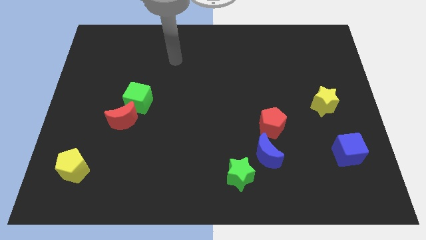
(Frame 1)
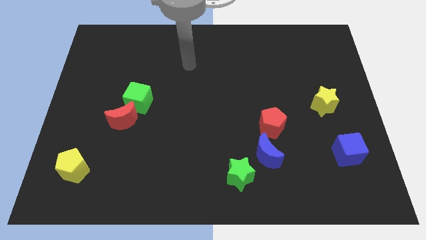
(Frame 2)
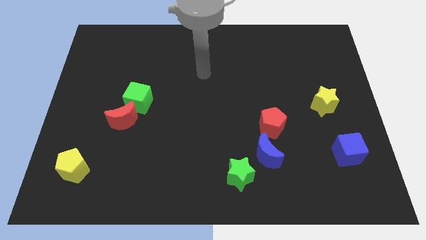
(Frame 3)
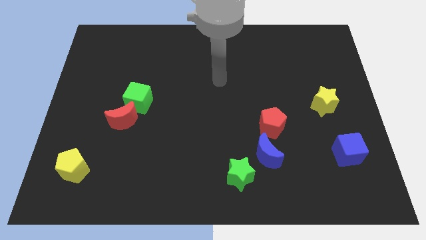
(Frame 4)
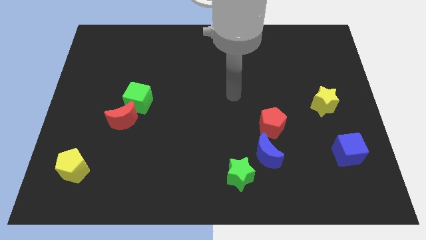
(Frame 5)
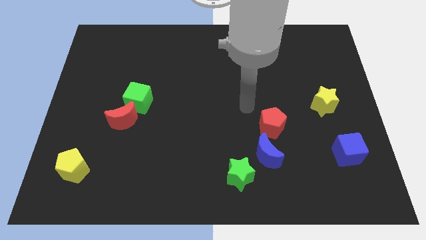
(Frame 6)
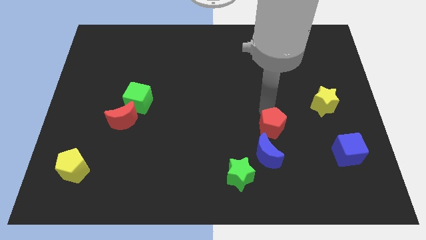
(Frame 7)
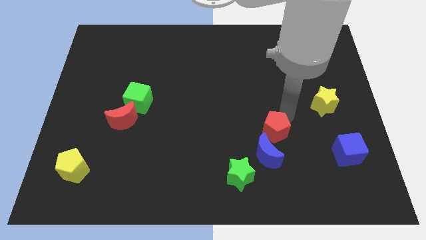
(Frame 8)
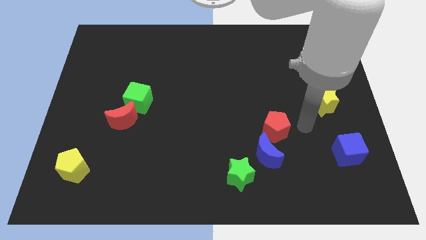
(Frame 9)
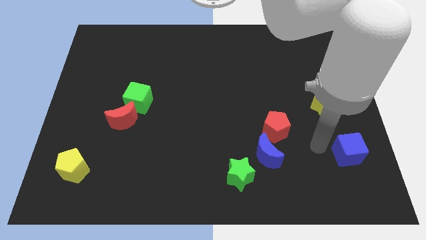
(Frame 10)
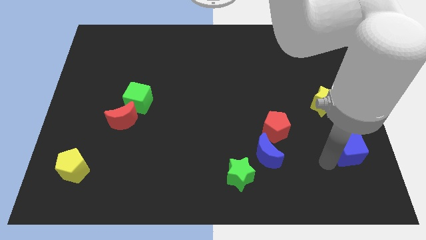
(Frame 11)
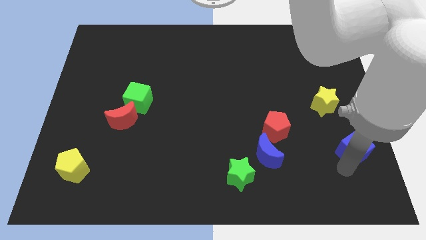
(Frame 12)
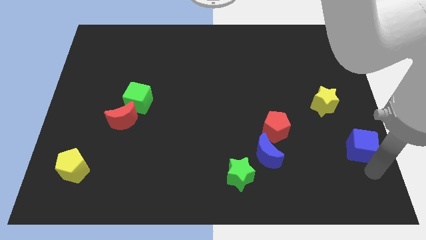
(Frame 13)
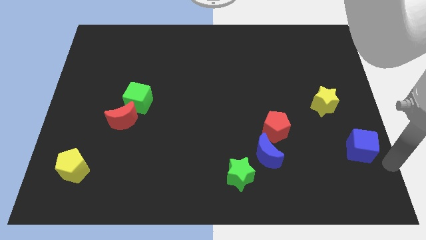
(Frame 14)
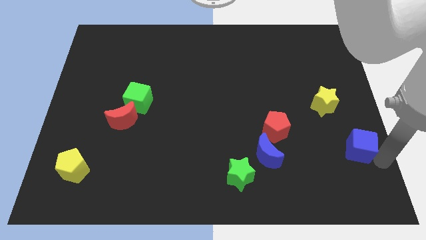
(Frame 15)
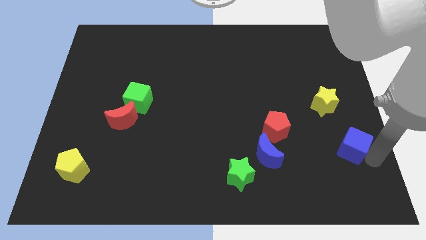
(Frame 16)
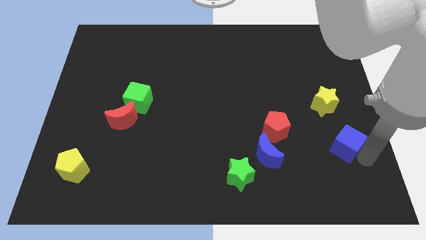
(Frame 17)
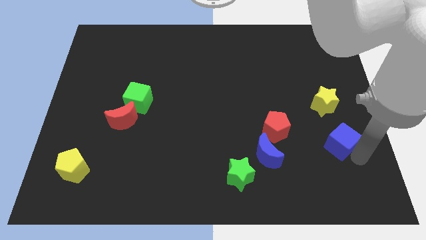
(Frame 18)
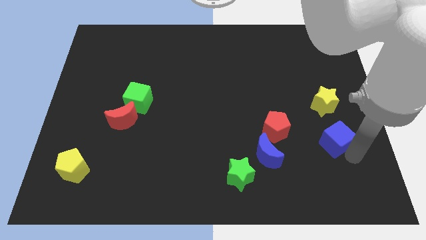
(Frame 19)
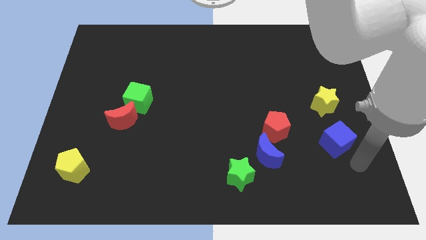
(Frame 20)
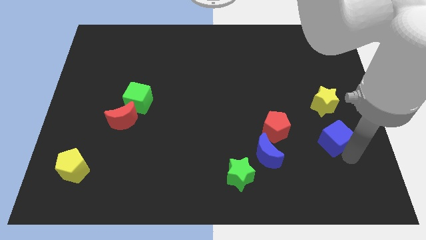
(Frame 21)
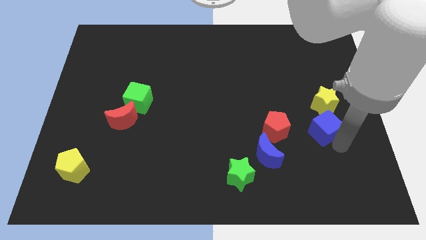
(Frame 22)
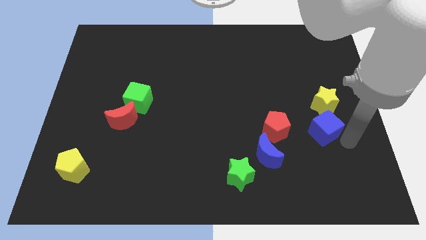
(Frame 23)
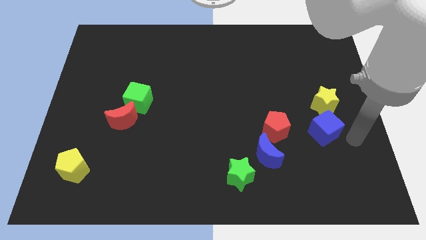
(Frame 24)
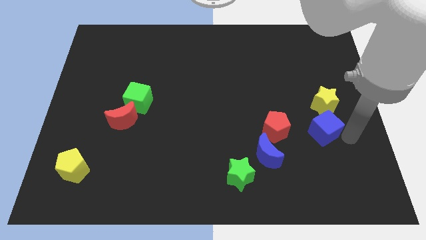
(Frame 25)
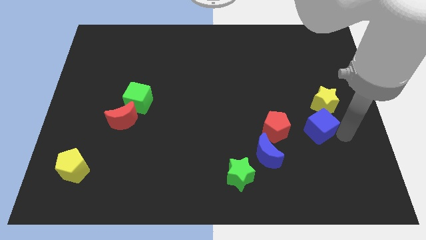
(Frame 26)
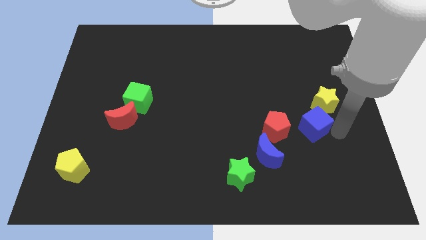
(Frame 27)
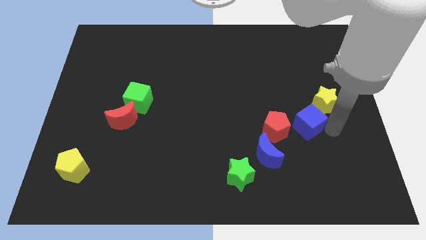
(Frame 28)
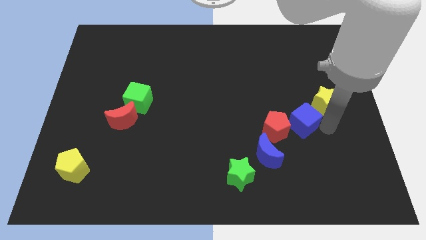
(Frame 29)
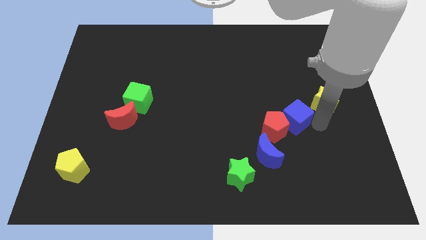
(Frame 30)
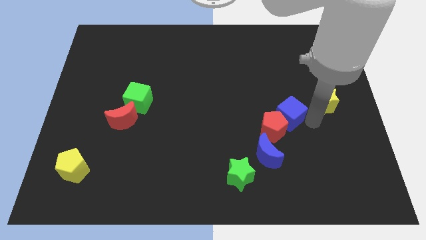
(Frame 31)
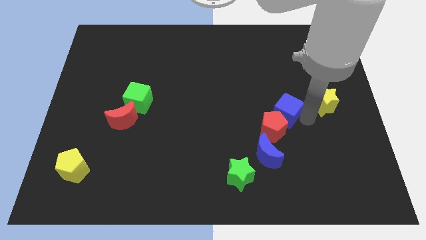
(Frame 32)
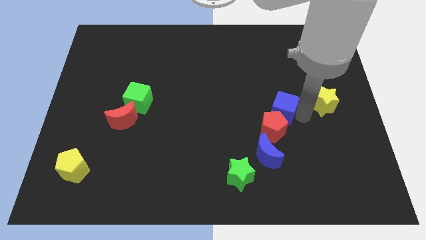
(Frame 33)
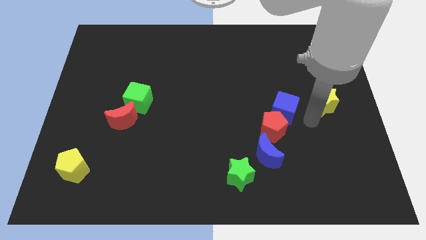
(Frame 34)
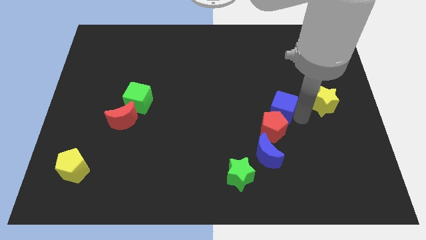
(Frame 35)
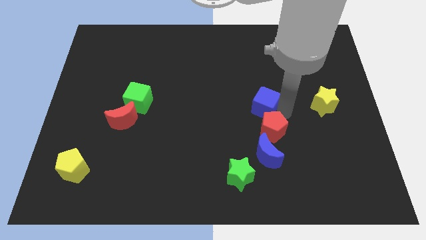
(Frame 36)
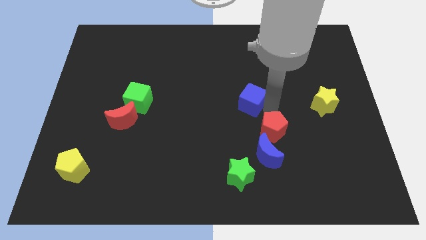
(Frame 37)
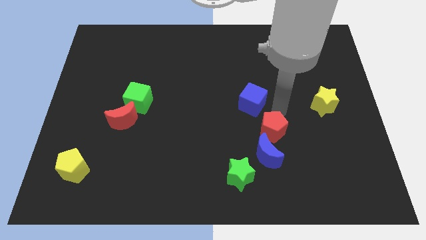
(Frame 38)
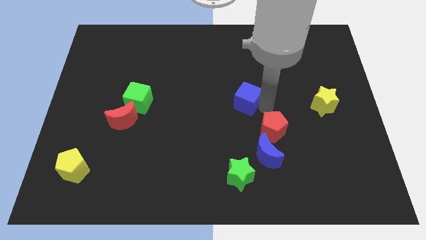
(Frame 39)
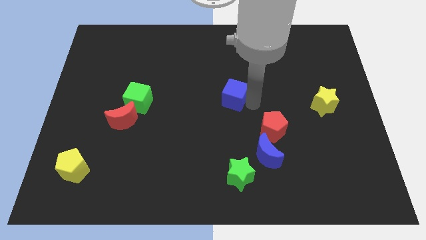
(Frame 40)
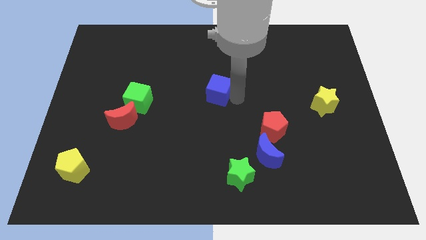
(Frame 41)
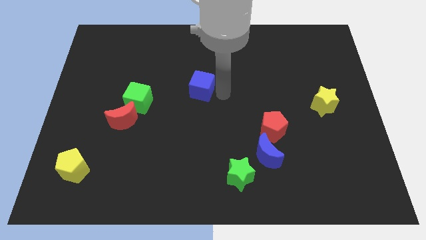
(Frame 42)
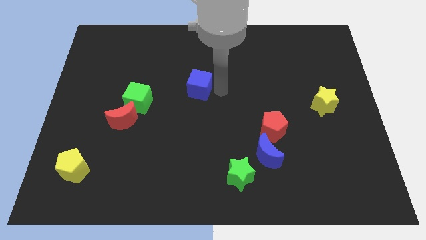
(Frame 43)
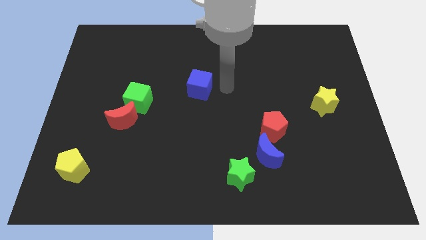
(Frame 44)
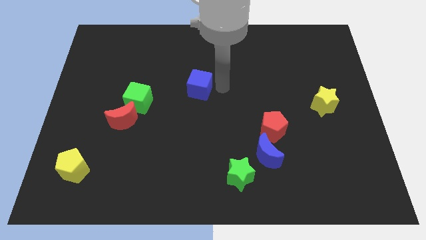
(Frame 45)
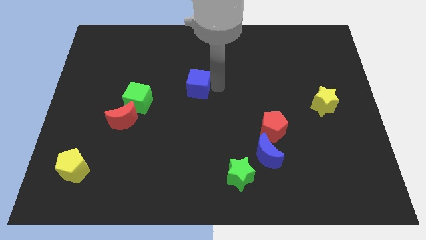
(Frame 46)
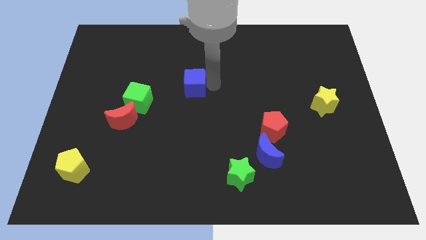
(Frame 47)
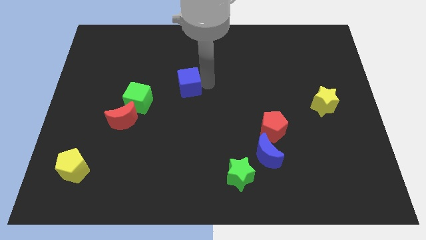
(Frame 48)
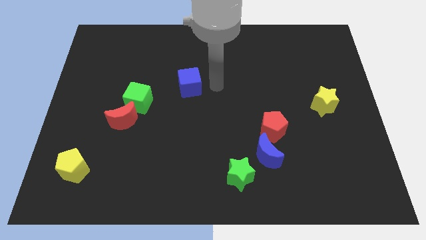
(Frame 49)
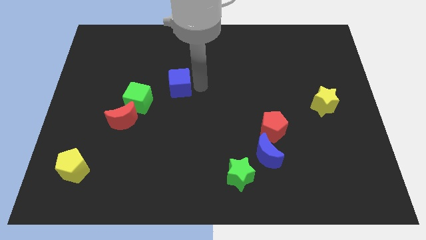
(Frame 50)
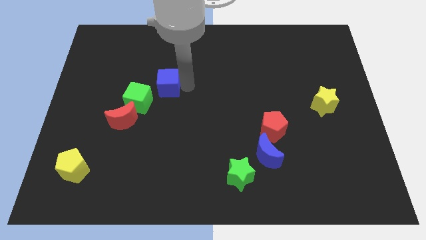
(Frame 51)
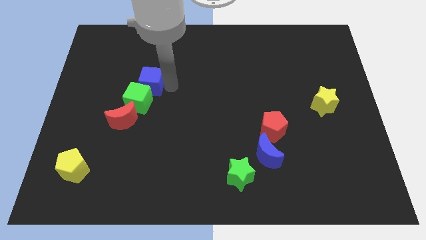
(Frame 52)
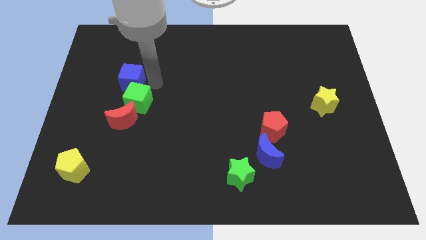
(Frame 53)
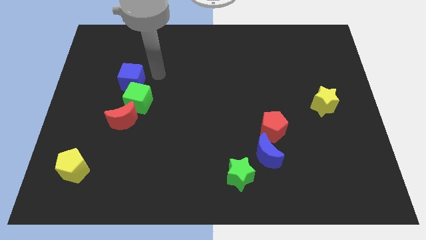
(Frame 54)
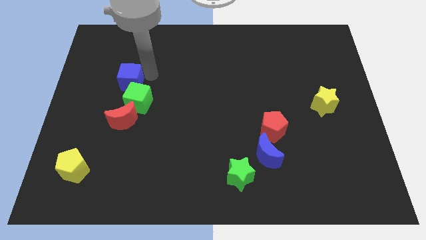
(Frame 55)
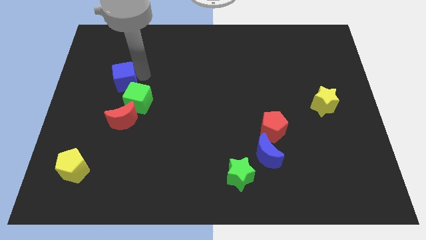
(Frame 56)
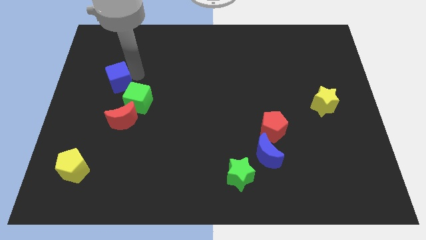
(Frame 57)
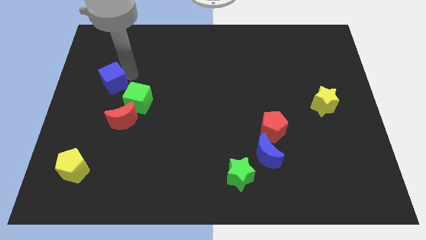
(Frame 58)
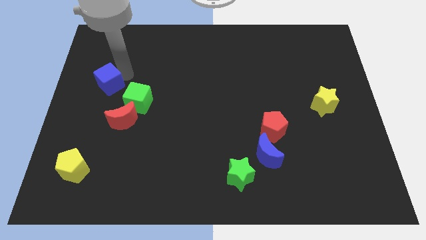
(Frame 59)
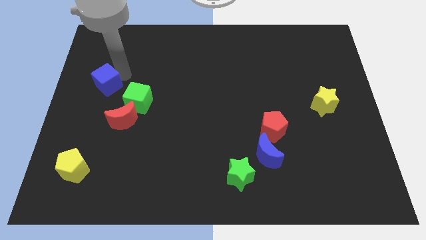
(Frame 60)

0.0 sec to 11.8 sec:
put the blue cube to the left side of the board

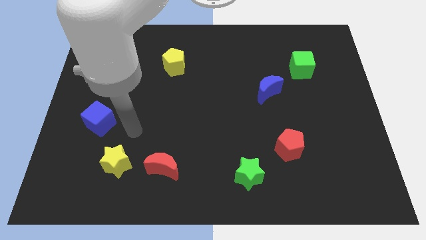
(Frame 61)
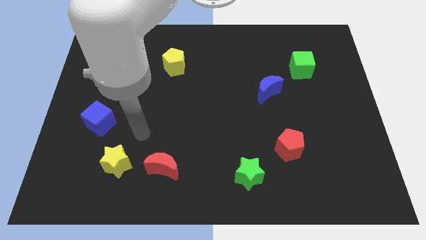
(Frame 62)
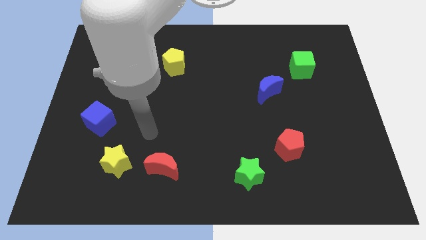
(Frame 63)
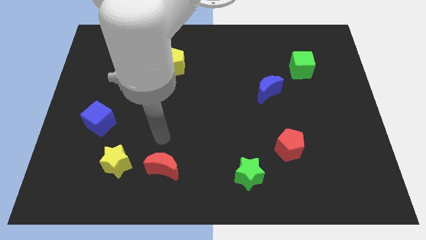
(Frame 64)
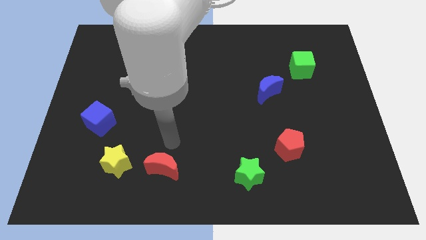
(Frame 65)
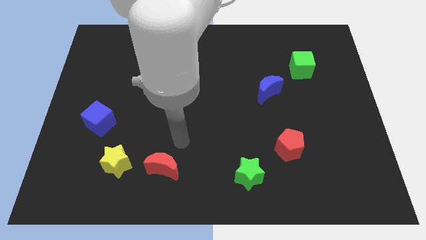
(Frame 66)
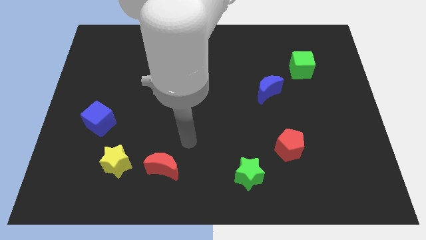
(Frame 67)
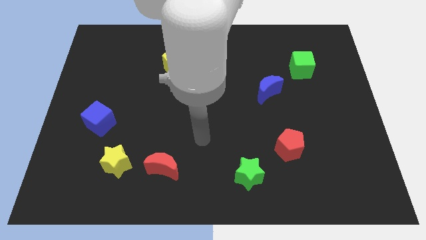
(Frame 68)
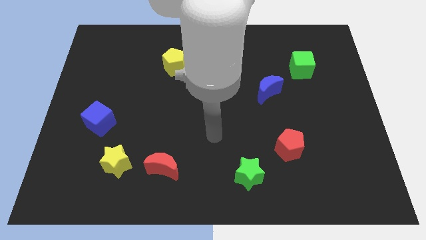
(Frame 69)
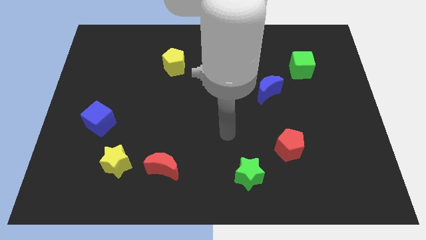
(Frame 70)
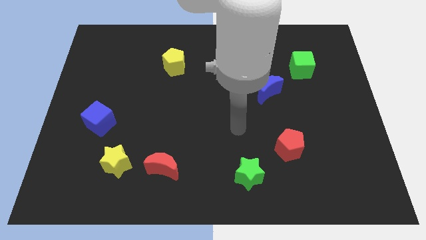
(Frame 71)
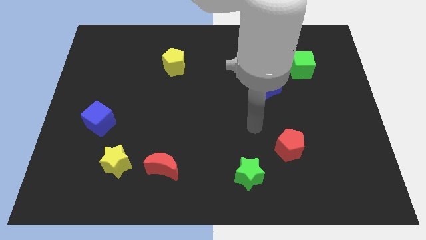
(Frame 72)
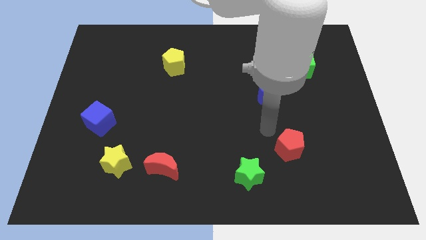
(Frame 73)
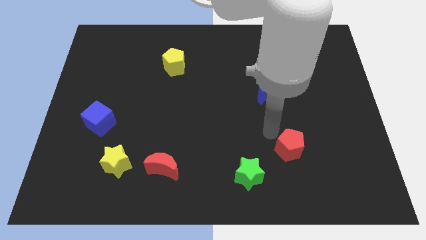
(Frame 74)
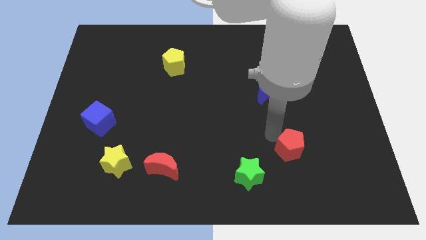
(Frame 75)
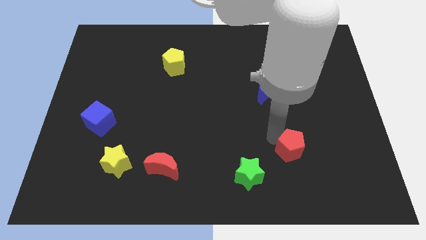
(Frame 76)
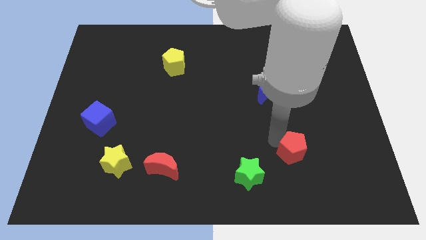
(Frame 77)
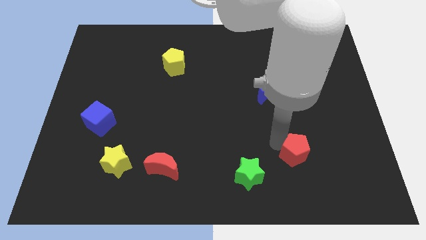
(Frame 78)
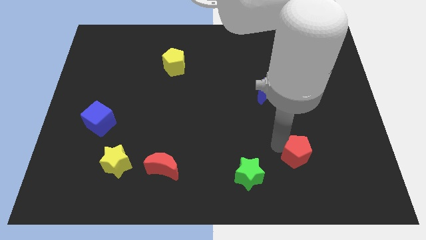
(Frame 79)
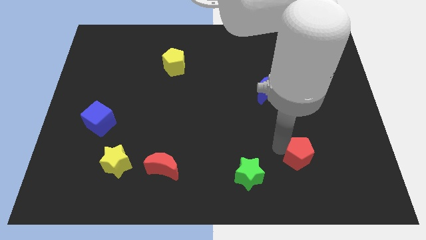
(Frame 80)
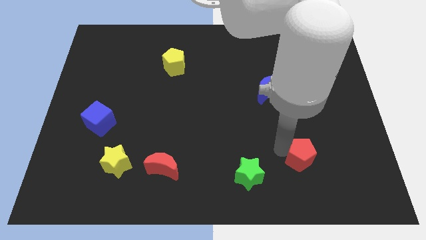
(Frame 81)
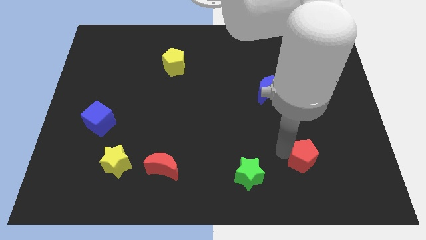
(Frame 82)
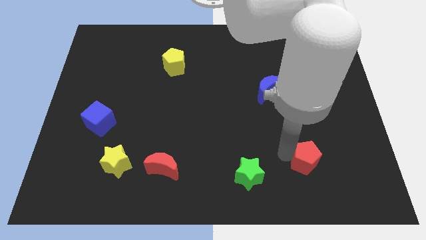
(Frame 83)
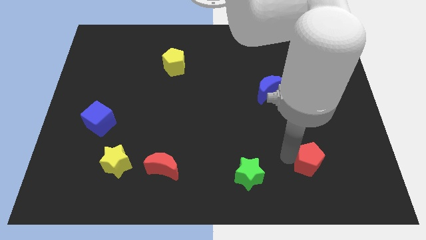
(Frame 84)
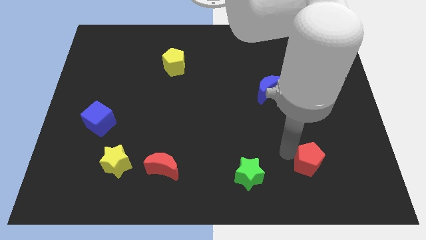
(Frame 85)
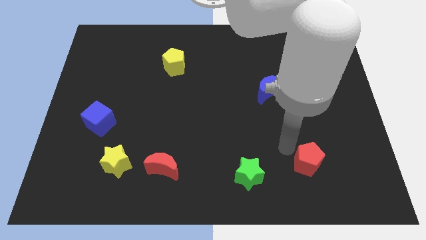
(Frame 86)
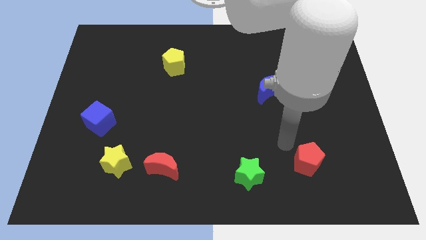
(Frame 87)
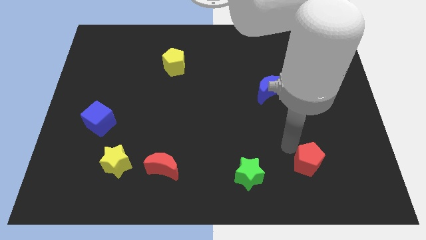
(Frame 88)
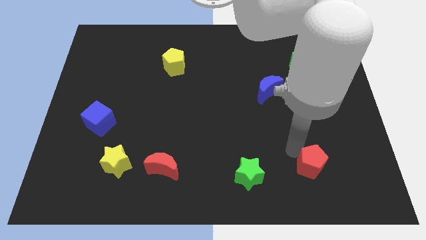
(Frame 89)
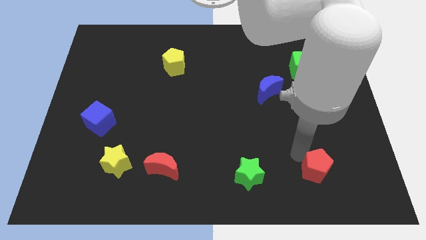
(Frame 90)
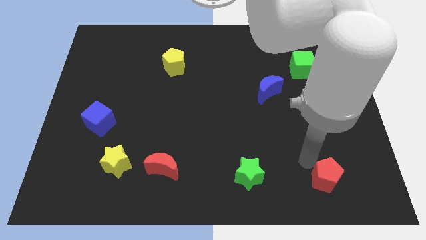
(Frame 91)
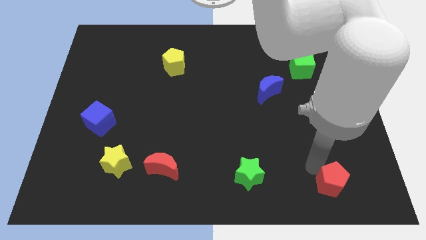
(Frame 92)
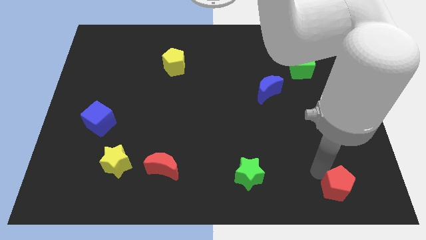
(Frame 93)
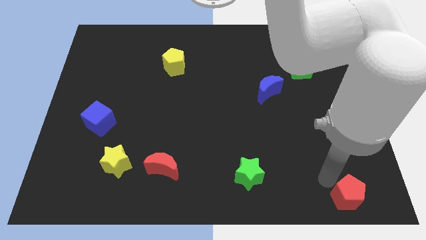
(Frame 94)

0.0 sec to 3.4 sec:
push the red pentagon to the lower right corner
